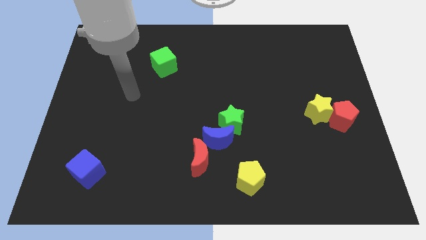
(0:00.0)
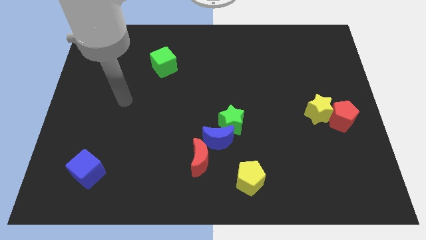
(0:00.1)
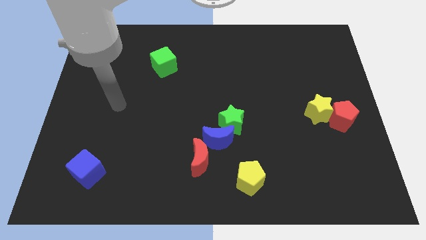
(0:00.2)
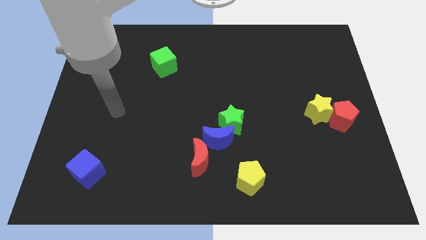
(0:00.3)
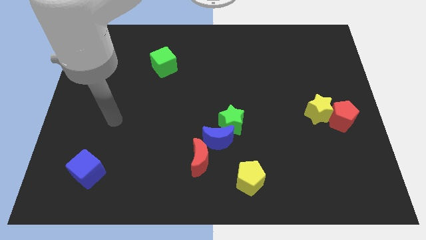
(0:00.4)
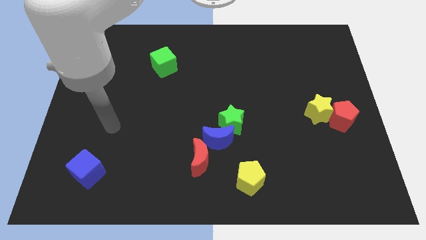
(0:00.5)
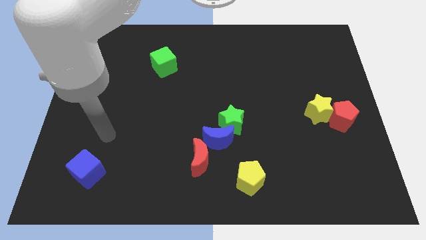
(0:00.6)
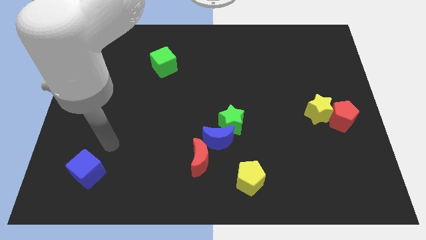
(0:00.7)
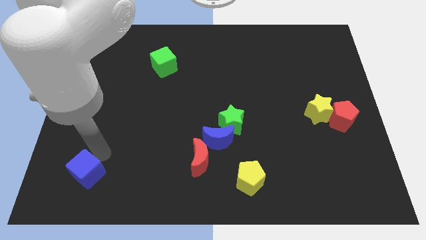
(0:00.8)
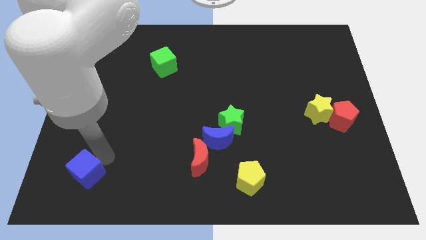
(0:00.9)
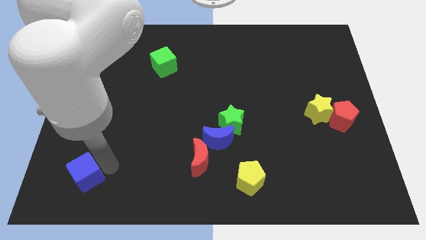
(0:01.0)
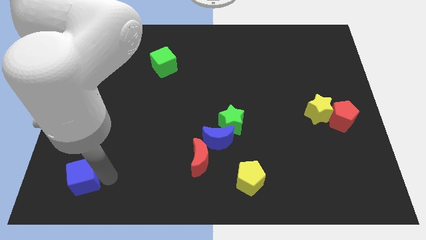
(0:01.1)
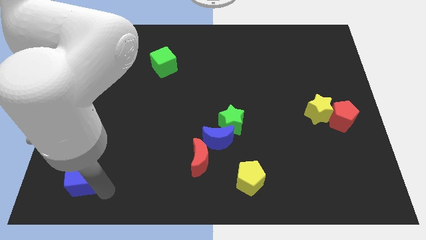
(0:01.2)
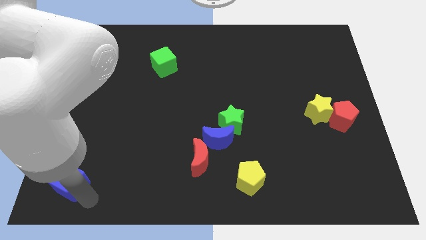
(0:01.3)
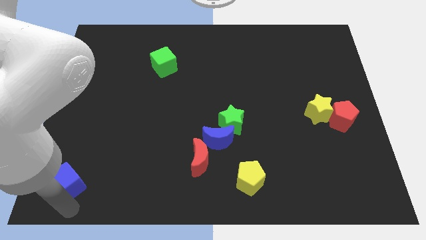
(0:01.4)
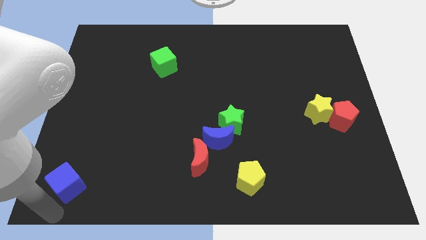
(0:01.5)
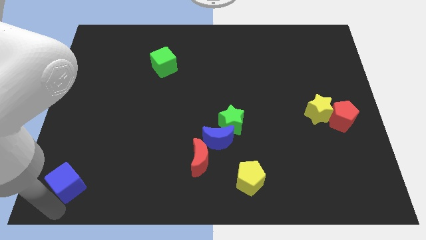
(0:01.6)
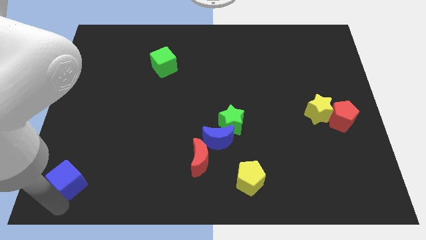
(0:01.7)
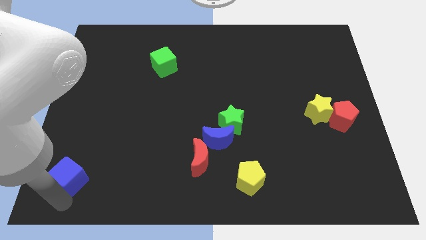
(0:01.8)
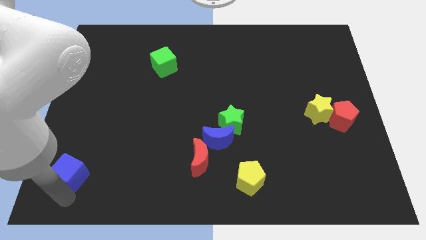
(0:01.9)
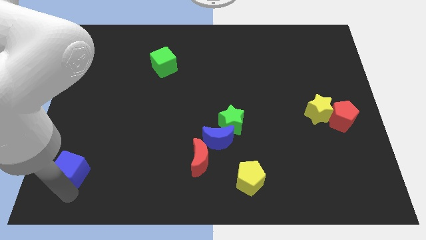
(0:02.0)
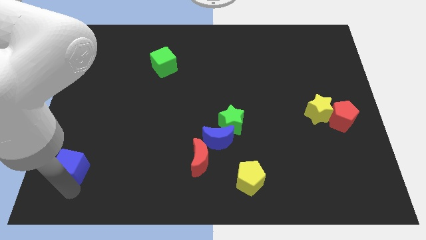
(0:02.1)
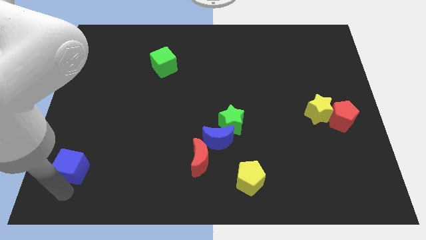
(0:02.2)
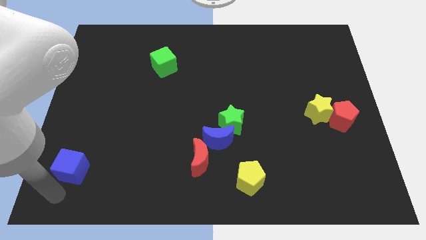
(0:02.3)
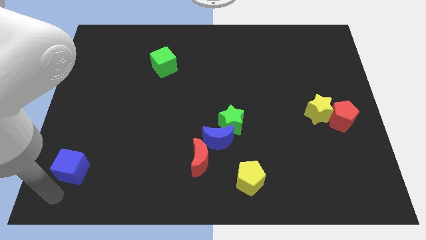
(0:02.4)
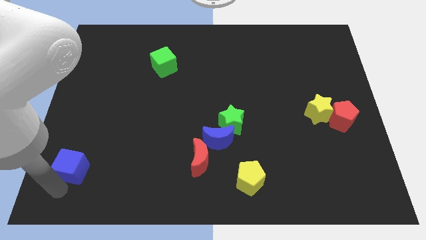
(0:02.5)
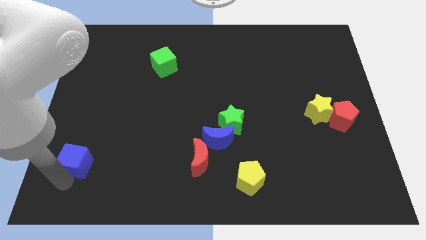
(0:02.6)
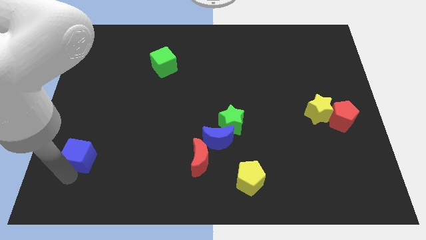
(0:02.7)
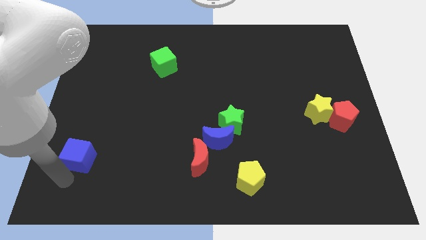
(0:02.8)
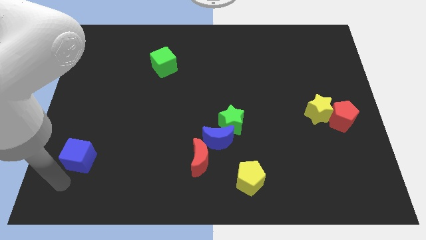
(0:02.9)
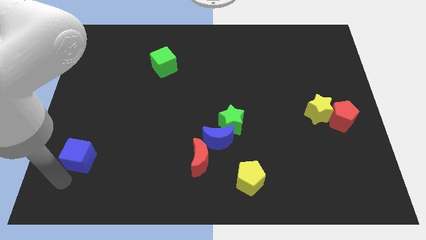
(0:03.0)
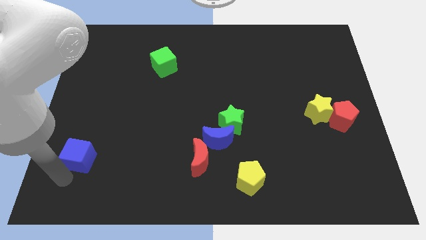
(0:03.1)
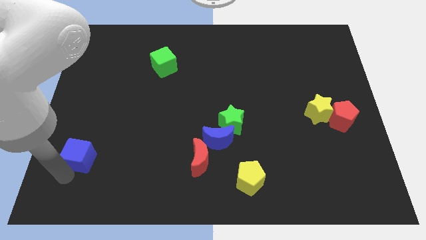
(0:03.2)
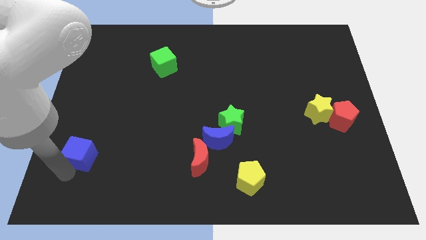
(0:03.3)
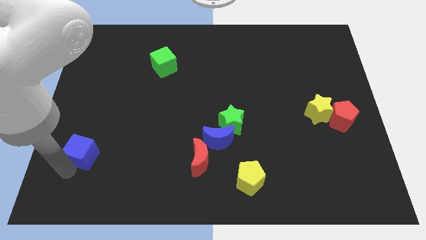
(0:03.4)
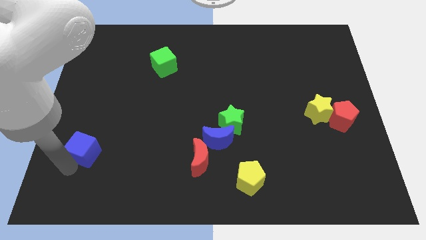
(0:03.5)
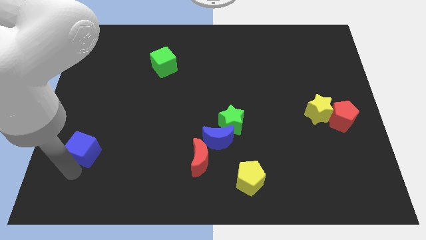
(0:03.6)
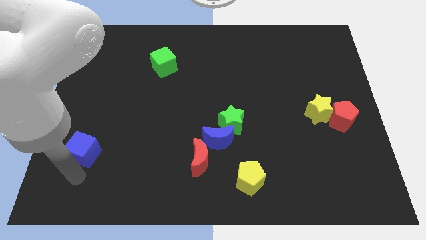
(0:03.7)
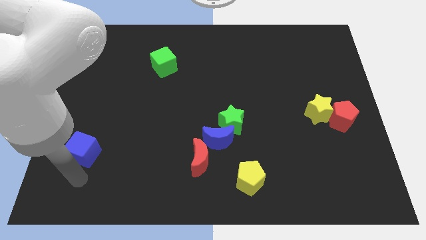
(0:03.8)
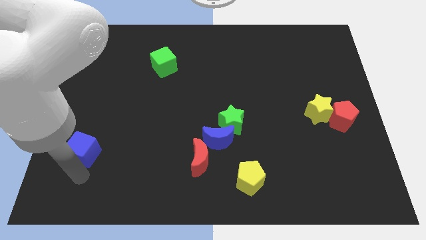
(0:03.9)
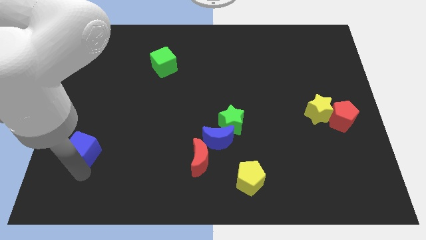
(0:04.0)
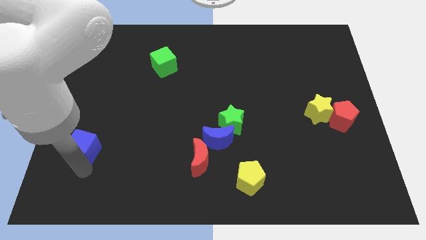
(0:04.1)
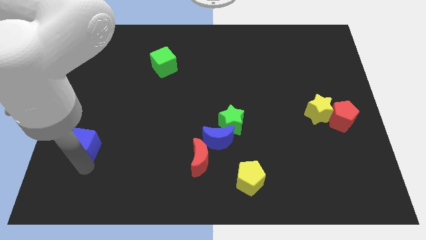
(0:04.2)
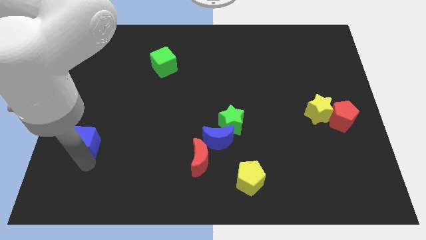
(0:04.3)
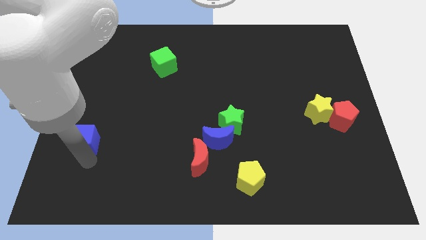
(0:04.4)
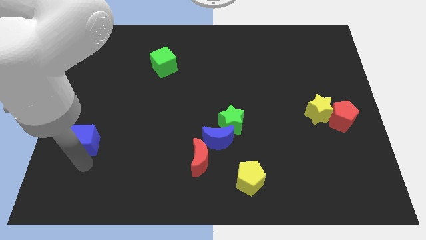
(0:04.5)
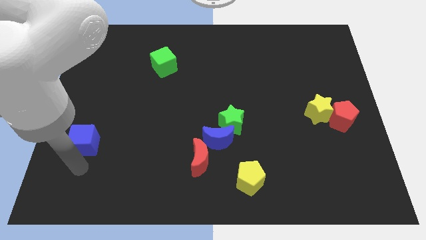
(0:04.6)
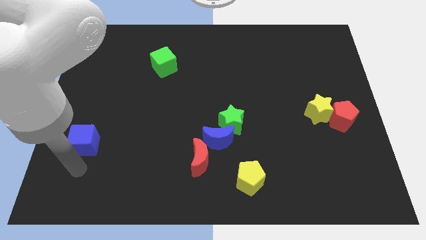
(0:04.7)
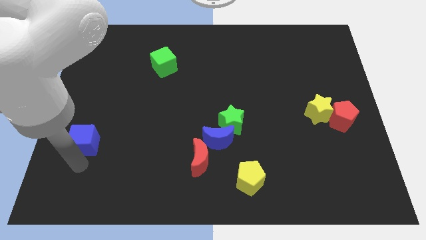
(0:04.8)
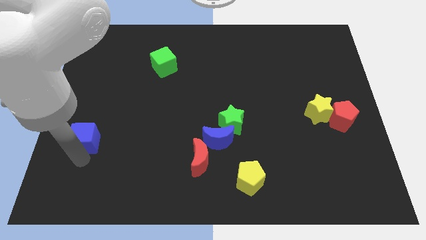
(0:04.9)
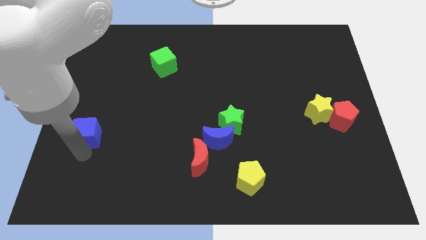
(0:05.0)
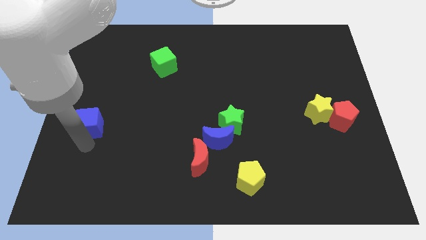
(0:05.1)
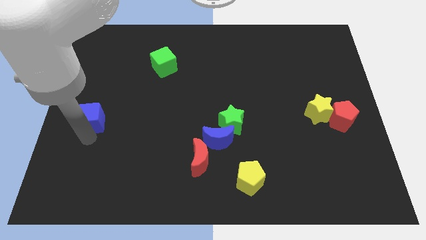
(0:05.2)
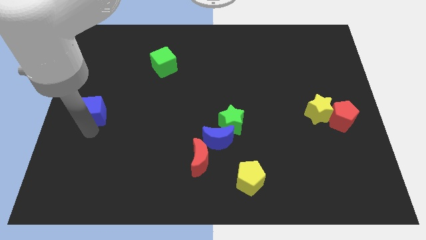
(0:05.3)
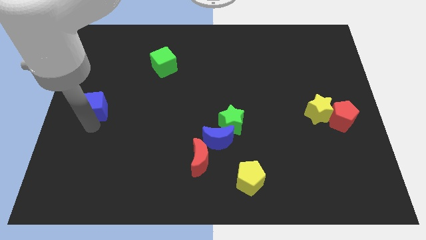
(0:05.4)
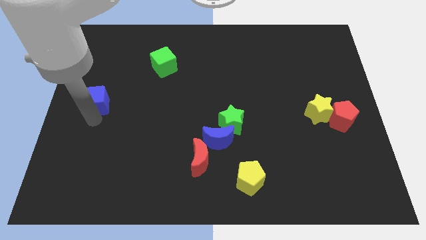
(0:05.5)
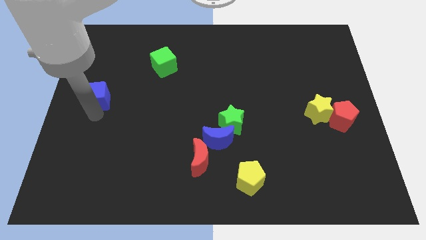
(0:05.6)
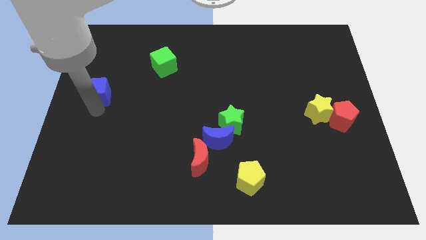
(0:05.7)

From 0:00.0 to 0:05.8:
move the blue cube upwards

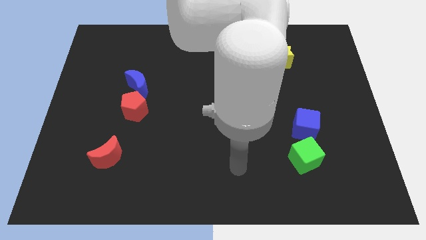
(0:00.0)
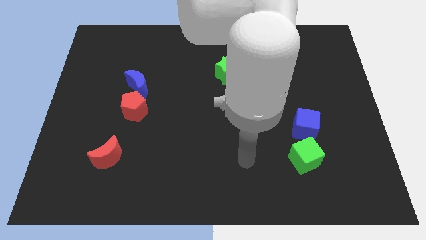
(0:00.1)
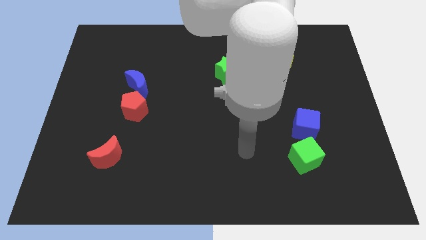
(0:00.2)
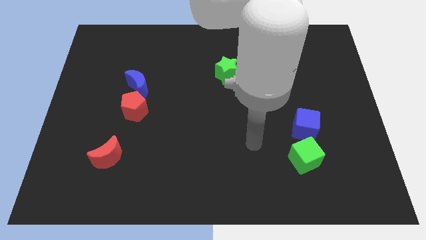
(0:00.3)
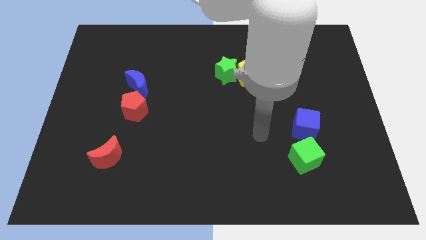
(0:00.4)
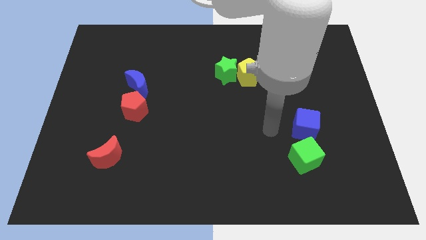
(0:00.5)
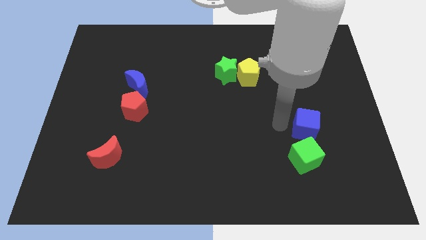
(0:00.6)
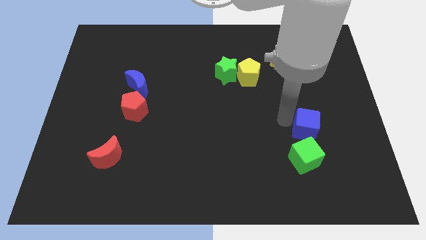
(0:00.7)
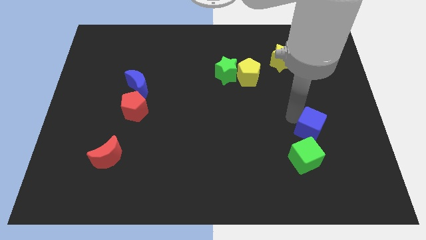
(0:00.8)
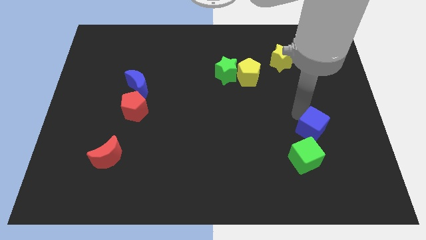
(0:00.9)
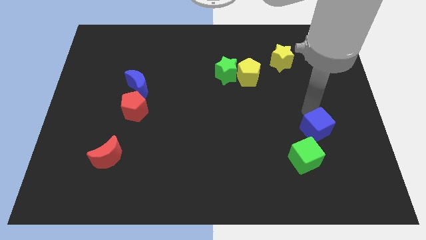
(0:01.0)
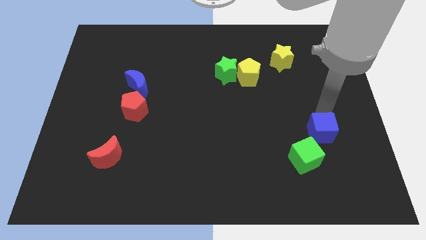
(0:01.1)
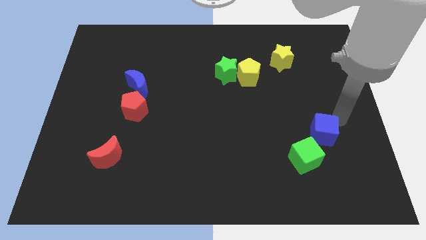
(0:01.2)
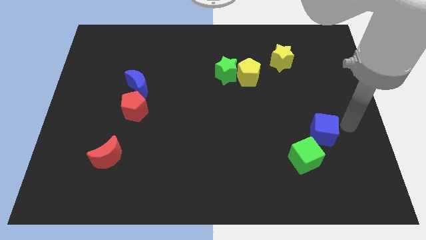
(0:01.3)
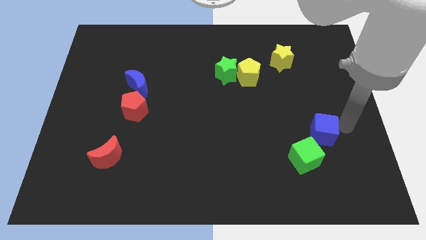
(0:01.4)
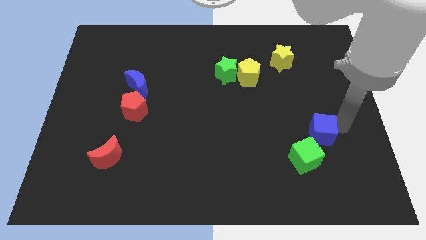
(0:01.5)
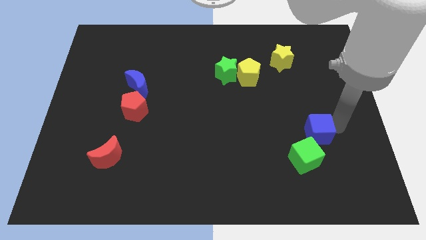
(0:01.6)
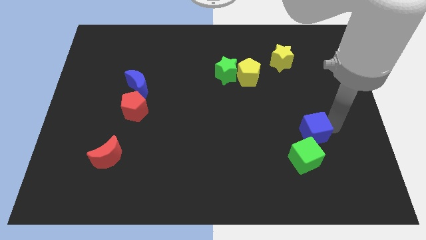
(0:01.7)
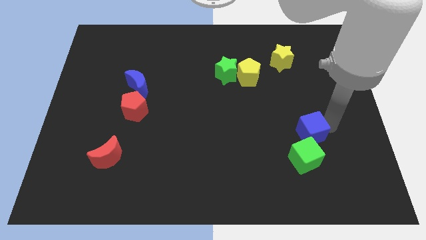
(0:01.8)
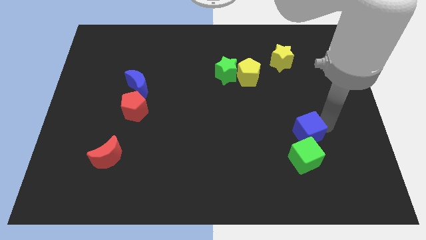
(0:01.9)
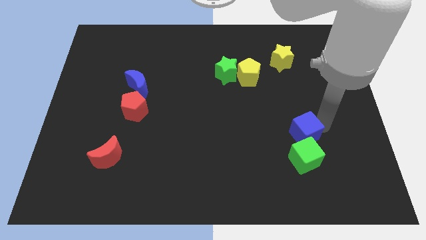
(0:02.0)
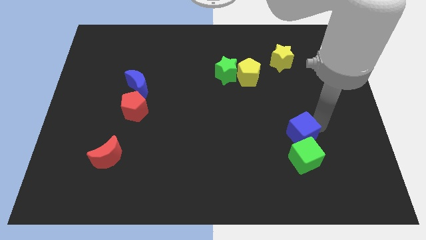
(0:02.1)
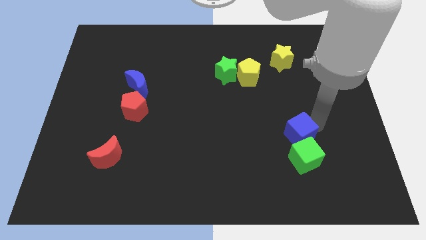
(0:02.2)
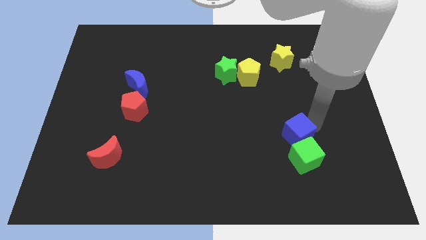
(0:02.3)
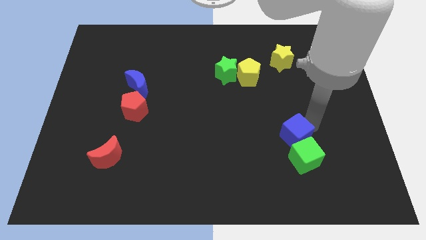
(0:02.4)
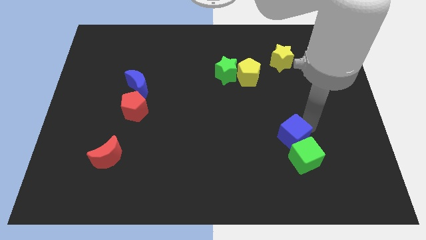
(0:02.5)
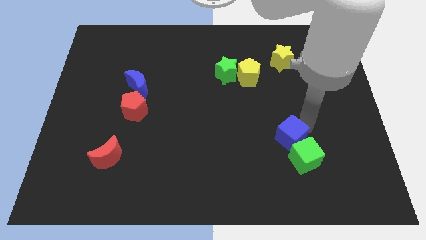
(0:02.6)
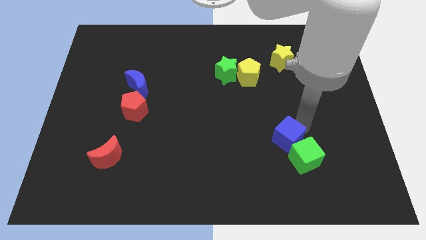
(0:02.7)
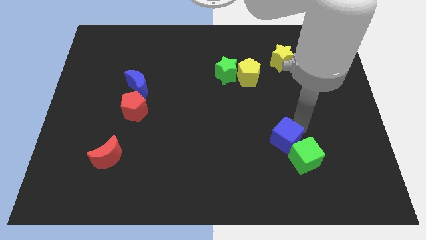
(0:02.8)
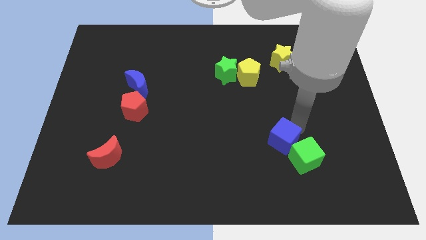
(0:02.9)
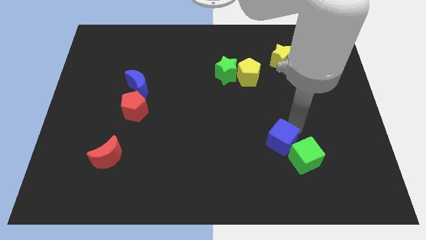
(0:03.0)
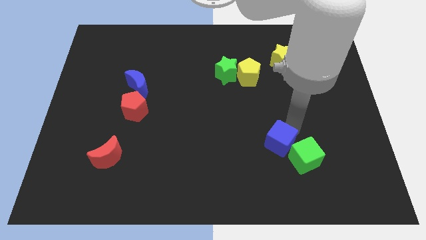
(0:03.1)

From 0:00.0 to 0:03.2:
slightly move the blue cube downwards and to the left
